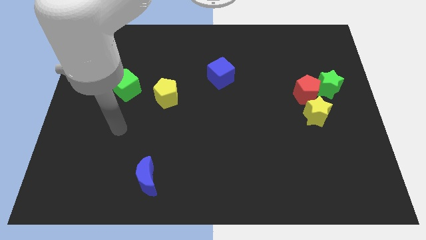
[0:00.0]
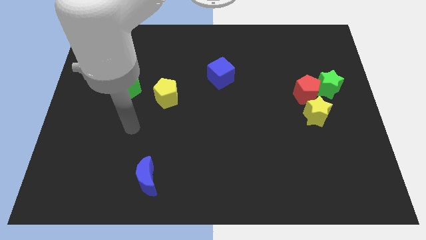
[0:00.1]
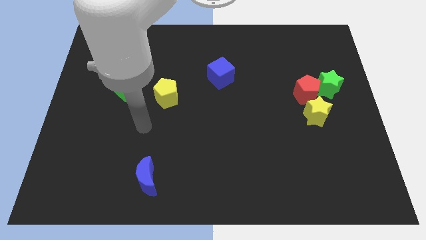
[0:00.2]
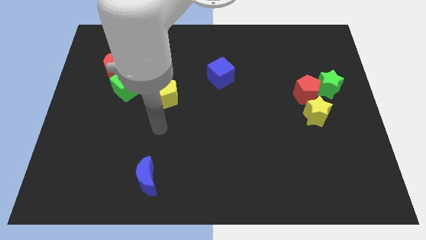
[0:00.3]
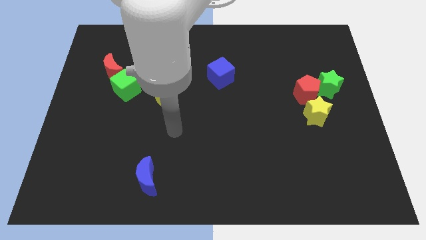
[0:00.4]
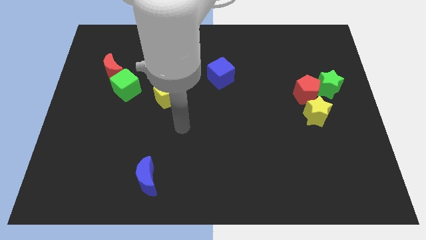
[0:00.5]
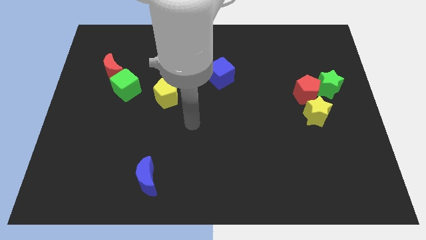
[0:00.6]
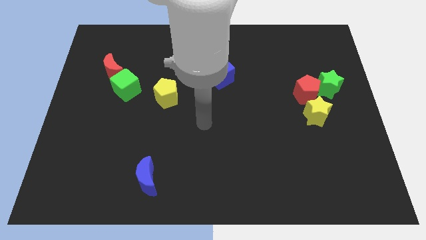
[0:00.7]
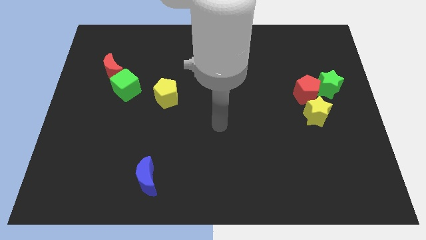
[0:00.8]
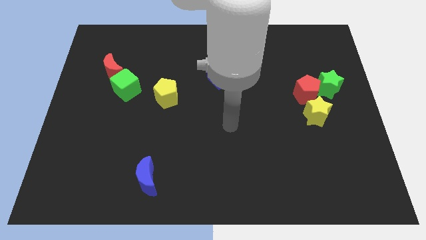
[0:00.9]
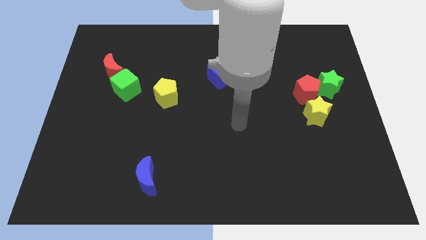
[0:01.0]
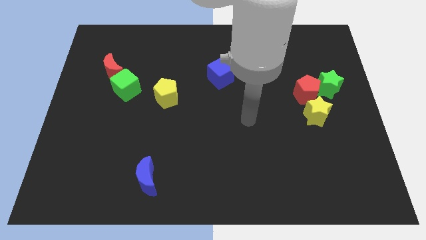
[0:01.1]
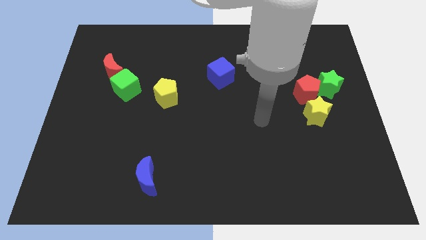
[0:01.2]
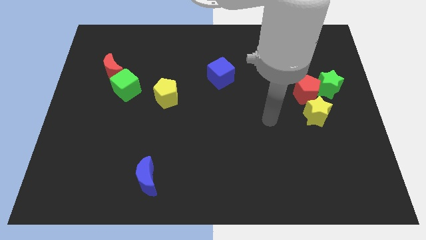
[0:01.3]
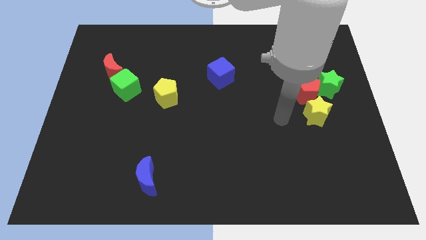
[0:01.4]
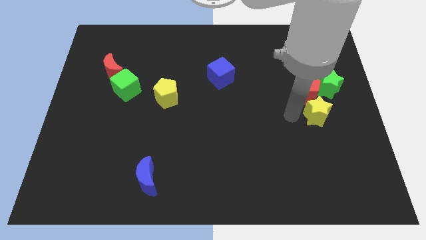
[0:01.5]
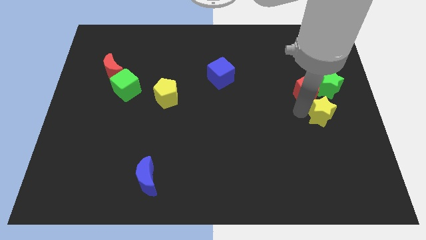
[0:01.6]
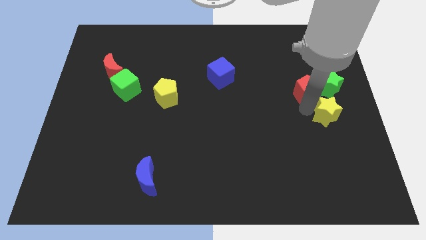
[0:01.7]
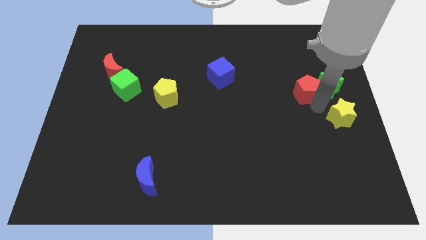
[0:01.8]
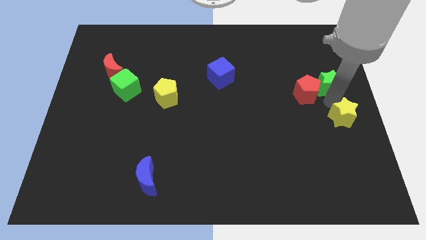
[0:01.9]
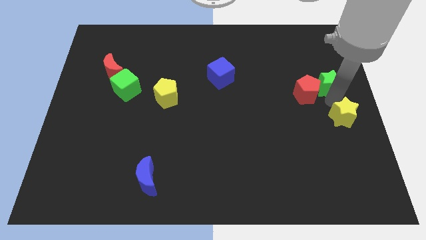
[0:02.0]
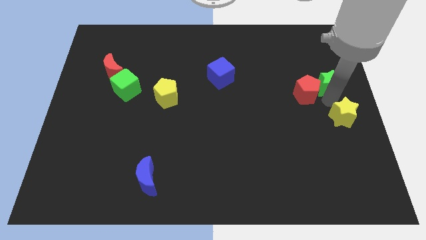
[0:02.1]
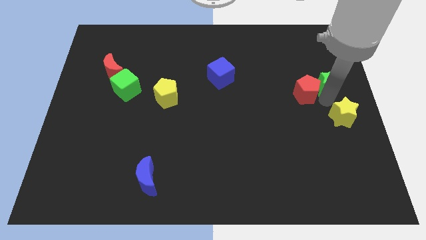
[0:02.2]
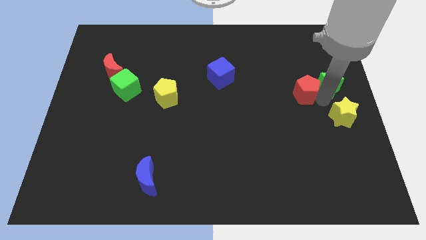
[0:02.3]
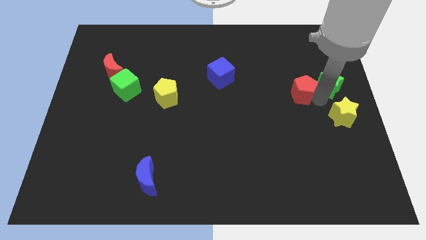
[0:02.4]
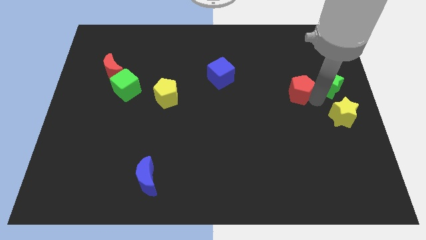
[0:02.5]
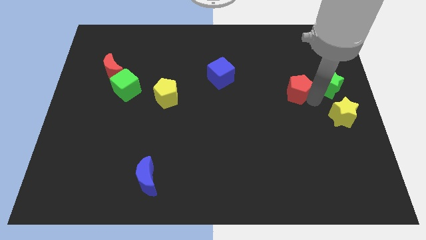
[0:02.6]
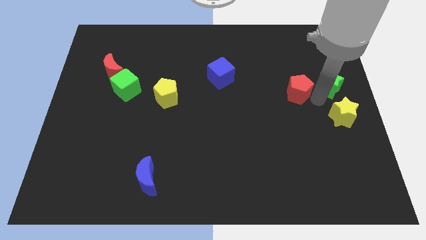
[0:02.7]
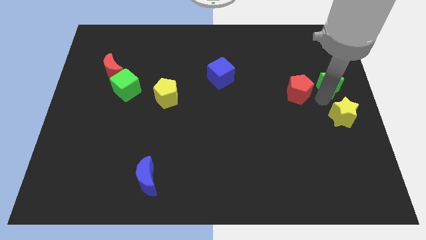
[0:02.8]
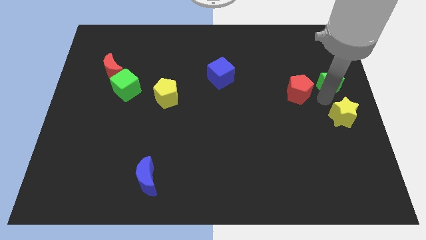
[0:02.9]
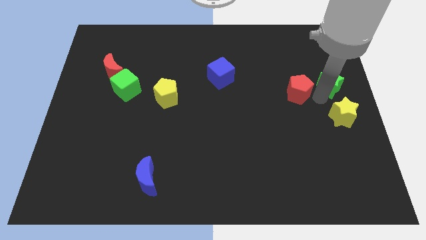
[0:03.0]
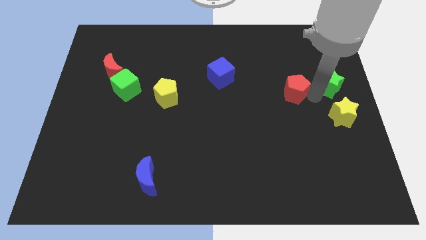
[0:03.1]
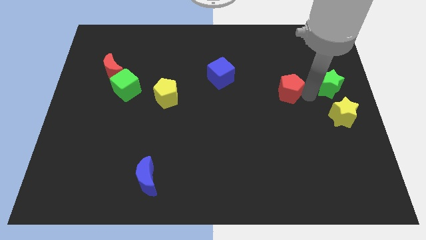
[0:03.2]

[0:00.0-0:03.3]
move the red pentagon away from the green star and yellow star

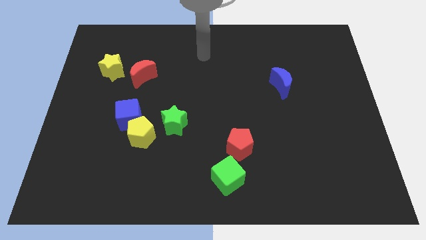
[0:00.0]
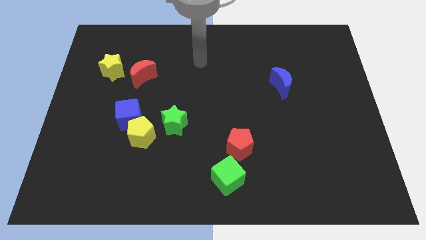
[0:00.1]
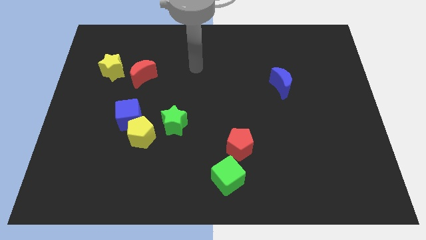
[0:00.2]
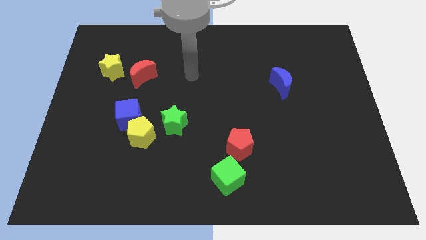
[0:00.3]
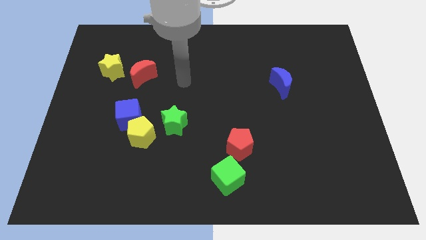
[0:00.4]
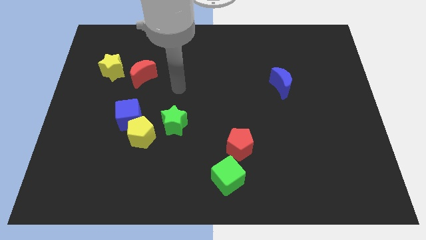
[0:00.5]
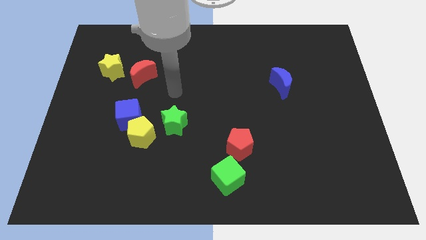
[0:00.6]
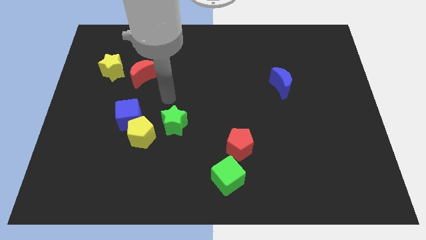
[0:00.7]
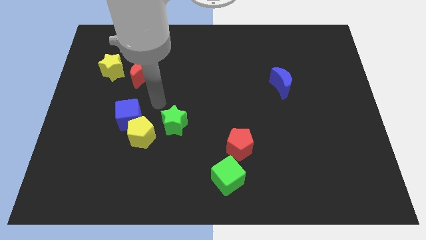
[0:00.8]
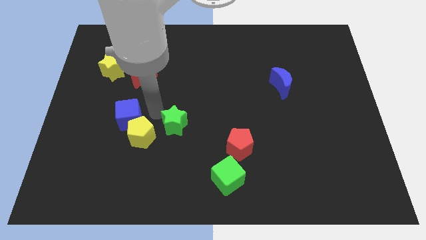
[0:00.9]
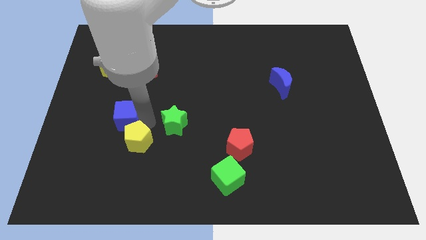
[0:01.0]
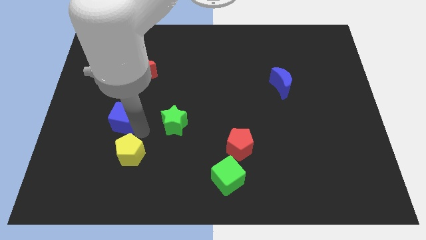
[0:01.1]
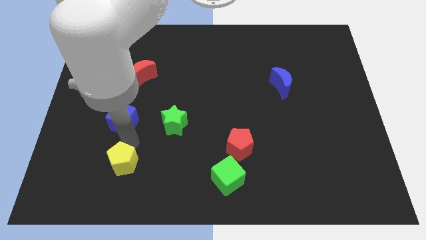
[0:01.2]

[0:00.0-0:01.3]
separate the blue cube from the yellow pentagon

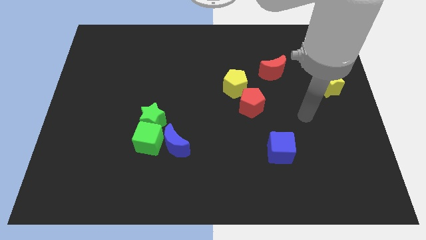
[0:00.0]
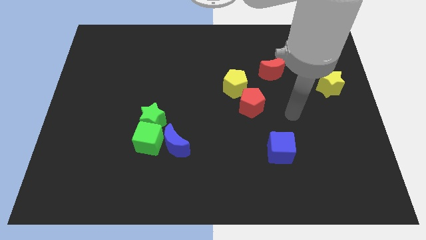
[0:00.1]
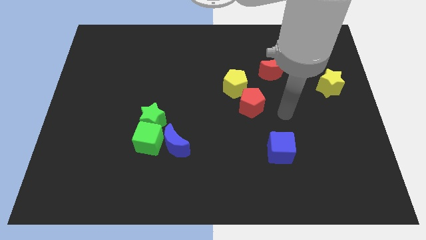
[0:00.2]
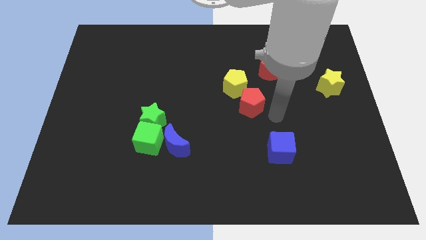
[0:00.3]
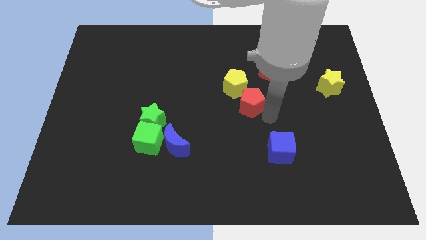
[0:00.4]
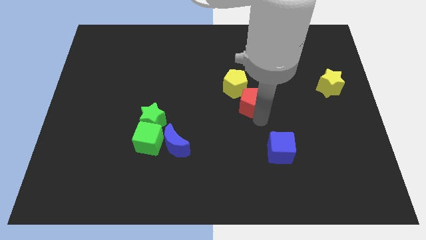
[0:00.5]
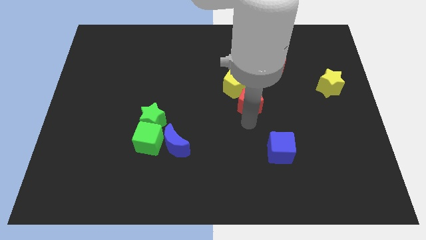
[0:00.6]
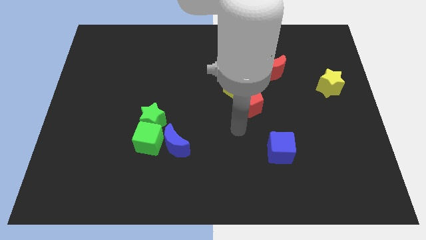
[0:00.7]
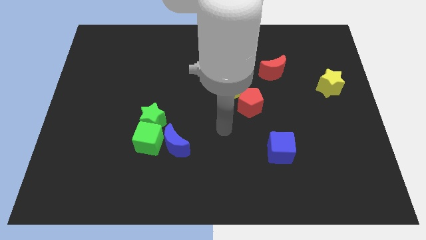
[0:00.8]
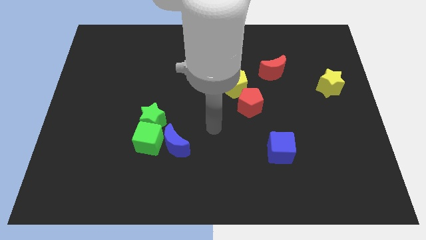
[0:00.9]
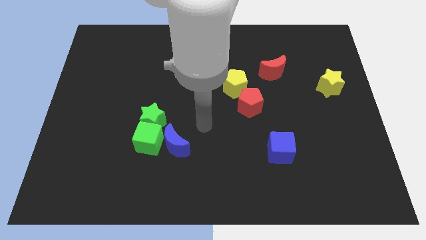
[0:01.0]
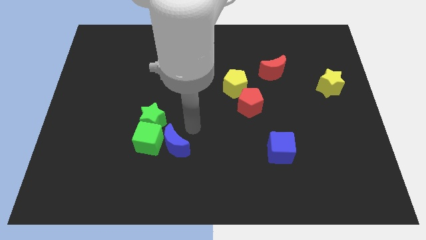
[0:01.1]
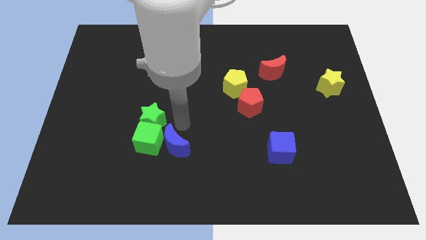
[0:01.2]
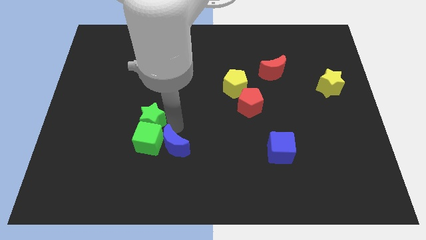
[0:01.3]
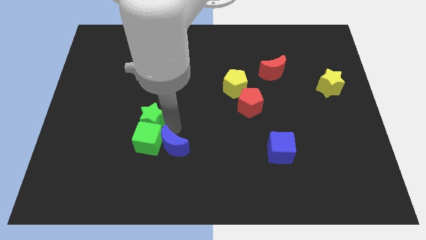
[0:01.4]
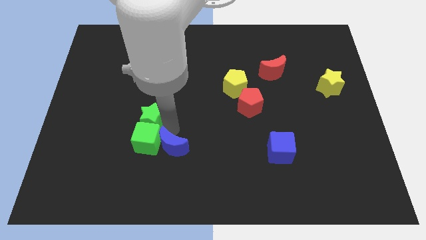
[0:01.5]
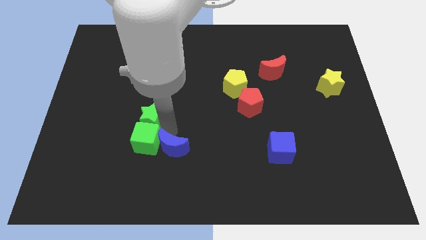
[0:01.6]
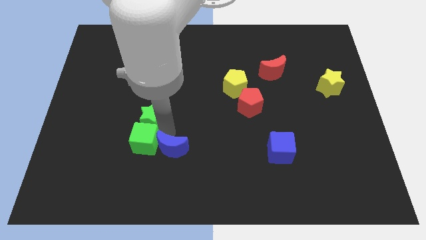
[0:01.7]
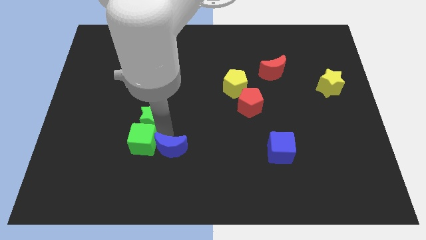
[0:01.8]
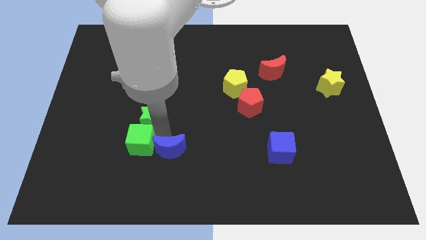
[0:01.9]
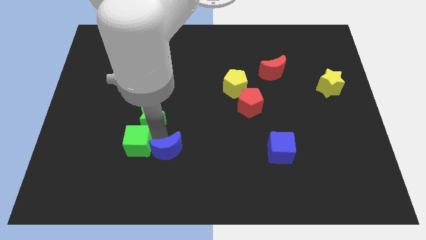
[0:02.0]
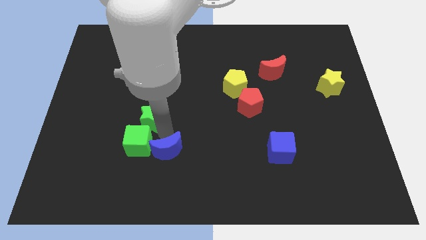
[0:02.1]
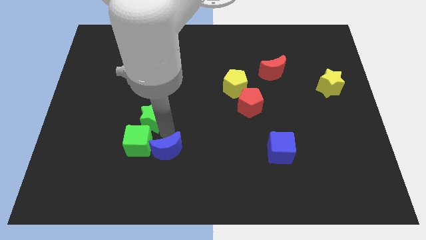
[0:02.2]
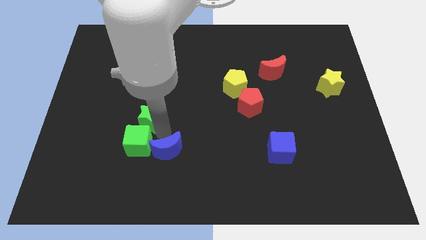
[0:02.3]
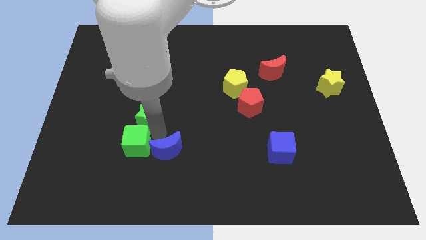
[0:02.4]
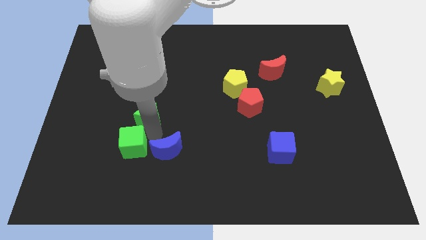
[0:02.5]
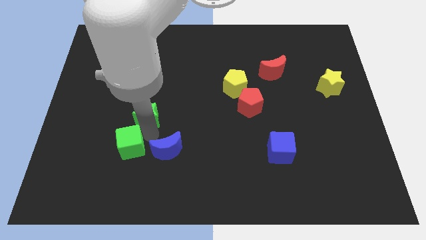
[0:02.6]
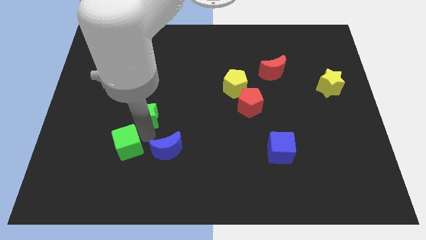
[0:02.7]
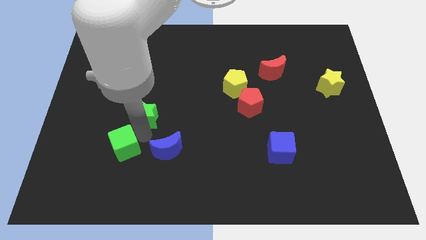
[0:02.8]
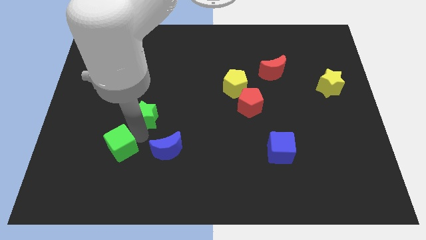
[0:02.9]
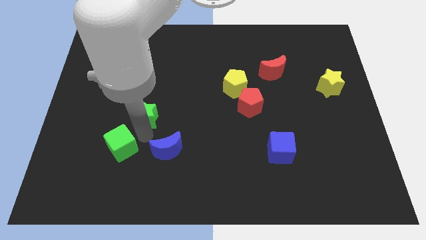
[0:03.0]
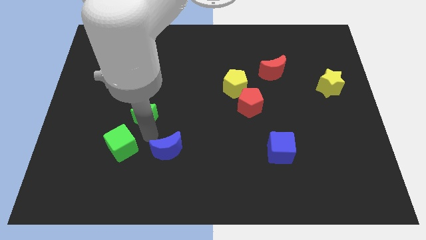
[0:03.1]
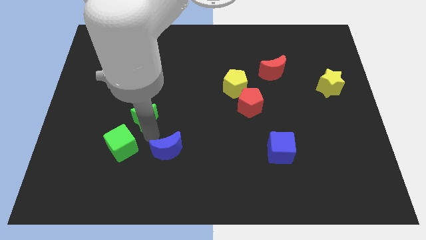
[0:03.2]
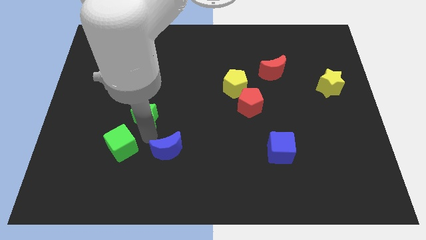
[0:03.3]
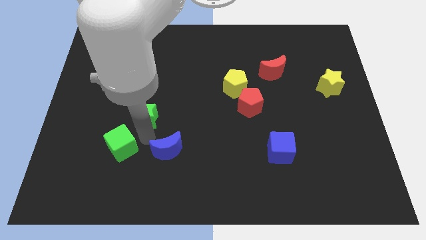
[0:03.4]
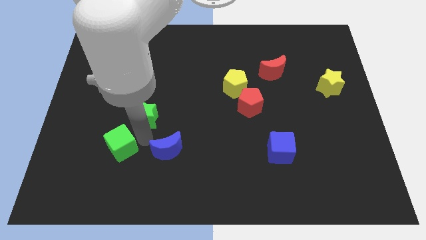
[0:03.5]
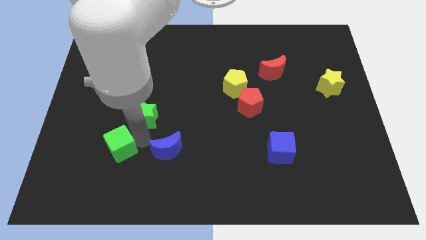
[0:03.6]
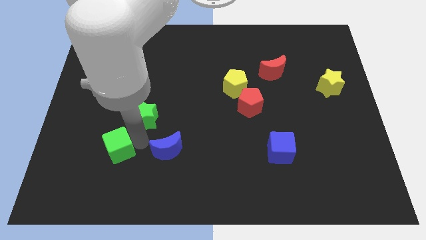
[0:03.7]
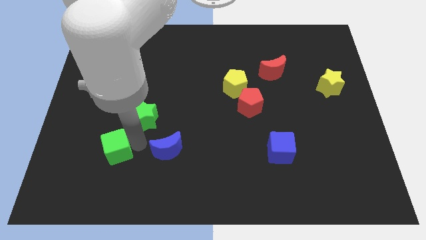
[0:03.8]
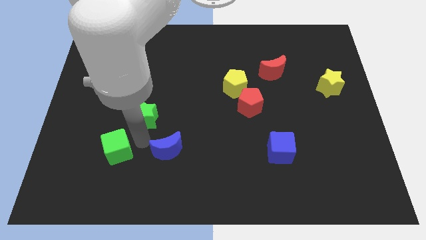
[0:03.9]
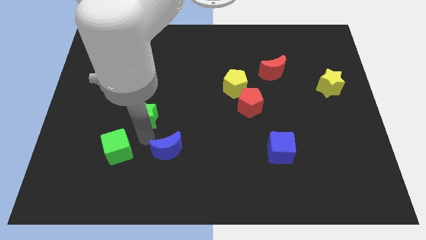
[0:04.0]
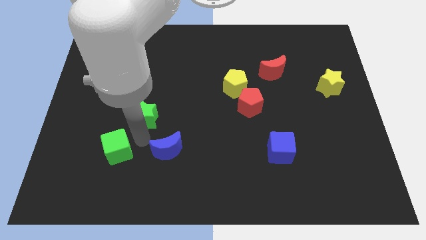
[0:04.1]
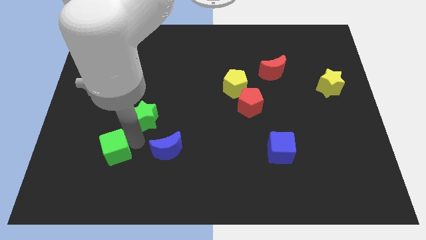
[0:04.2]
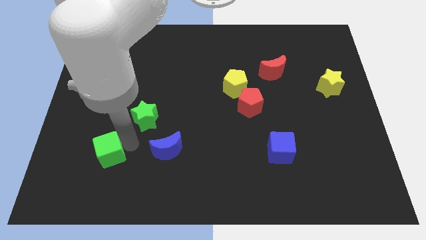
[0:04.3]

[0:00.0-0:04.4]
pull the green cube apart from the green star and blue moon

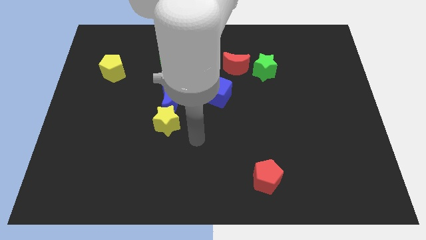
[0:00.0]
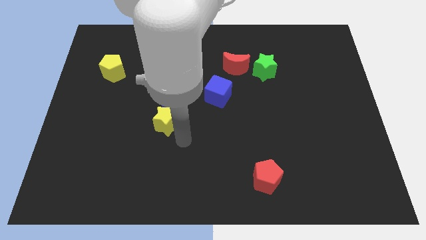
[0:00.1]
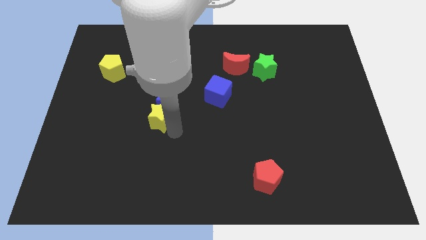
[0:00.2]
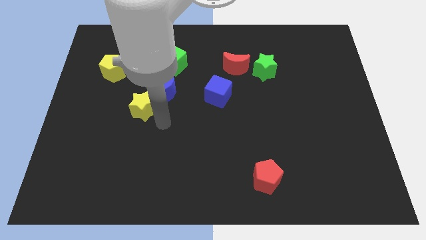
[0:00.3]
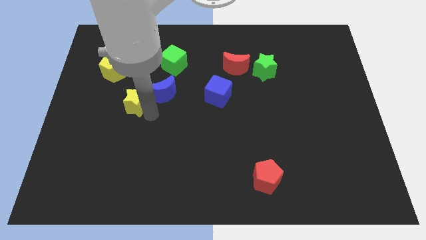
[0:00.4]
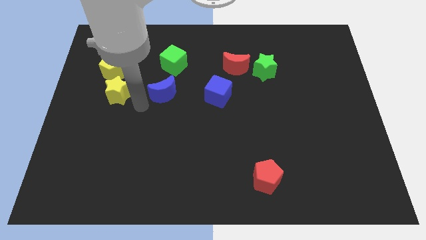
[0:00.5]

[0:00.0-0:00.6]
pull the blue moon apart from the yellow star
